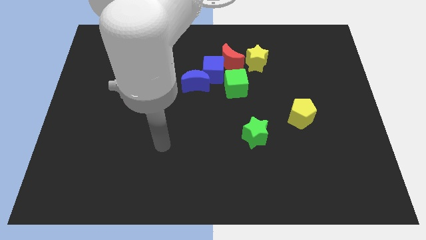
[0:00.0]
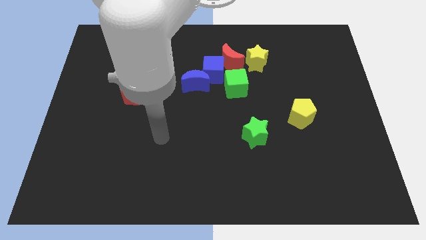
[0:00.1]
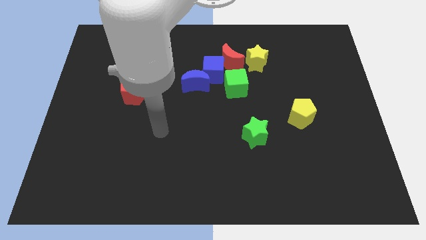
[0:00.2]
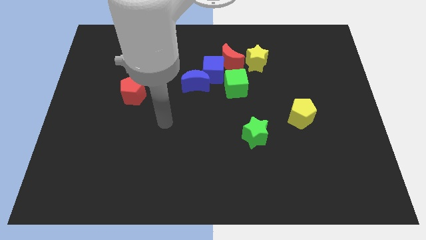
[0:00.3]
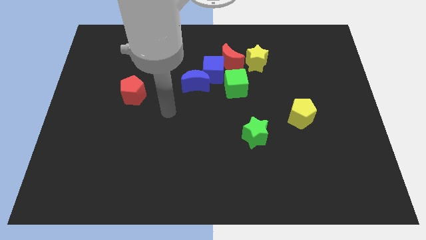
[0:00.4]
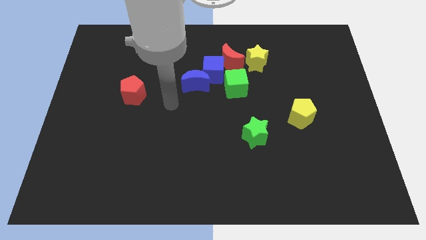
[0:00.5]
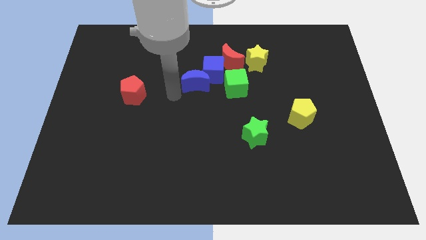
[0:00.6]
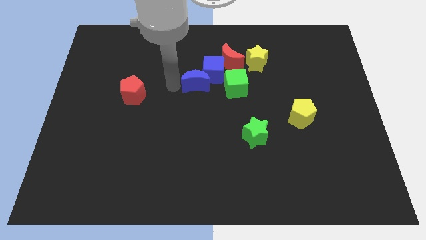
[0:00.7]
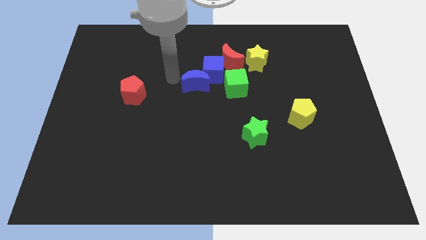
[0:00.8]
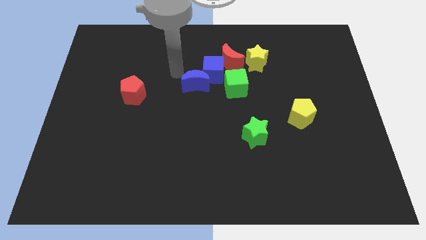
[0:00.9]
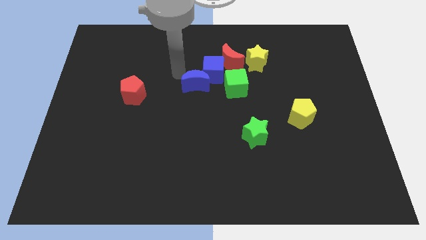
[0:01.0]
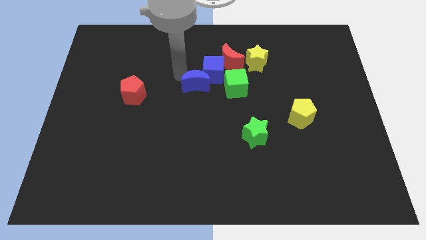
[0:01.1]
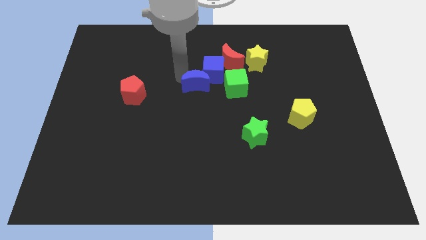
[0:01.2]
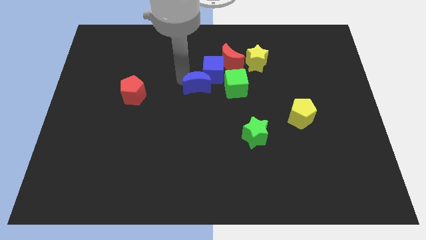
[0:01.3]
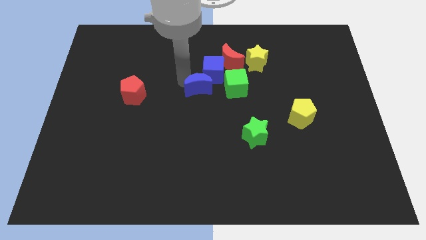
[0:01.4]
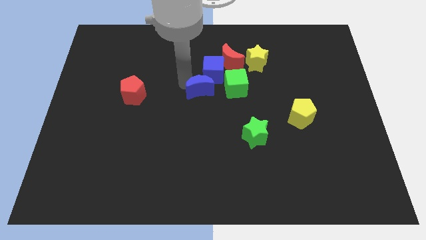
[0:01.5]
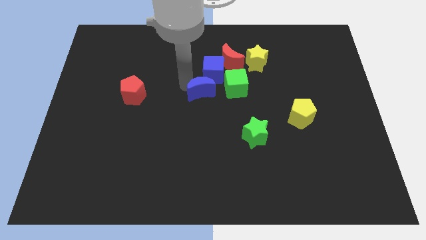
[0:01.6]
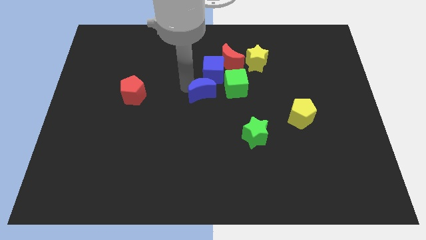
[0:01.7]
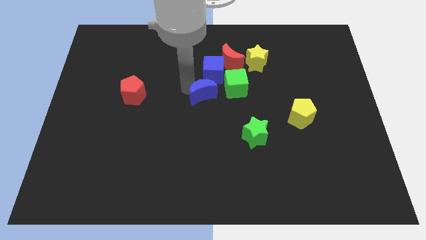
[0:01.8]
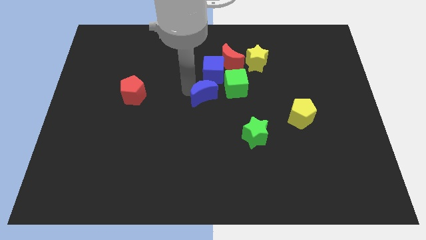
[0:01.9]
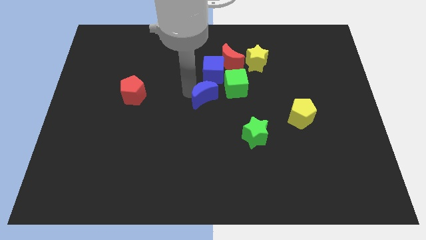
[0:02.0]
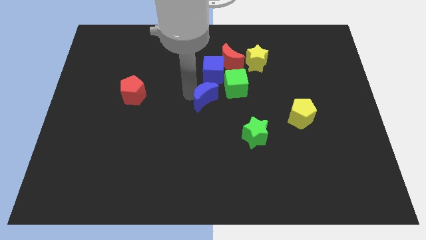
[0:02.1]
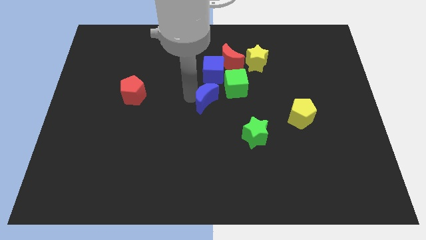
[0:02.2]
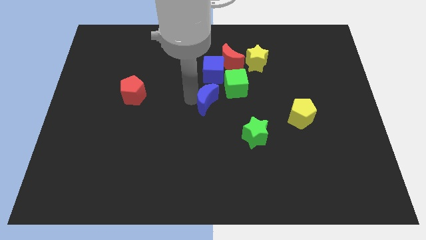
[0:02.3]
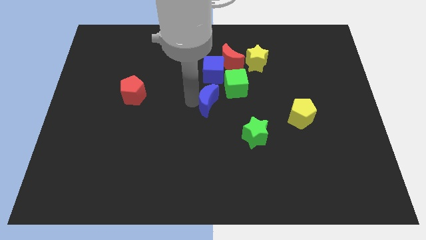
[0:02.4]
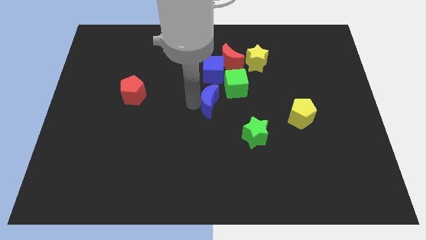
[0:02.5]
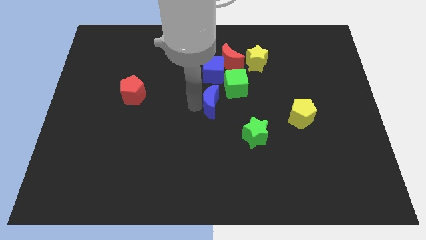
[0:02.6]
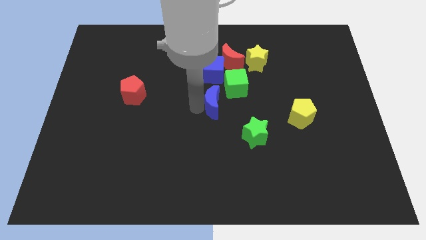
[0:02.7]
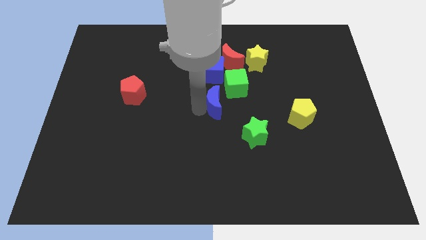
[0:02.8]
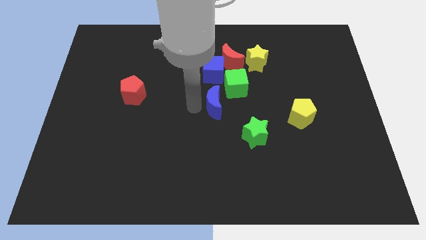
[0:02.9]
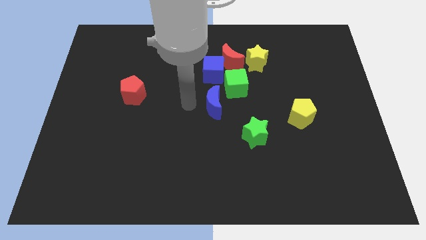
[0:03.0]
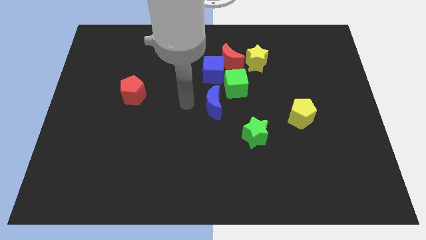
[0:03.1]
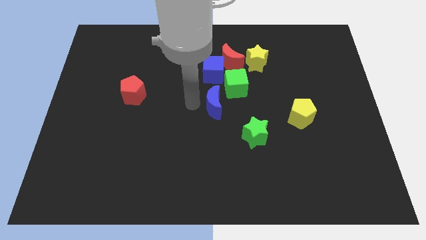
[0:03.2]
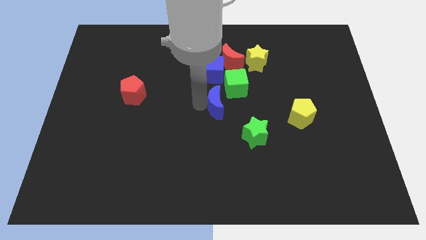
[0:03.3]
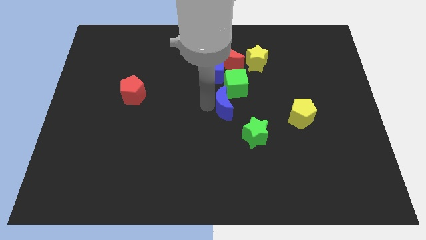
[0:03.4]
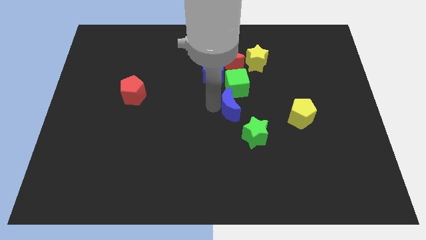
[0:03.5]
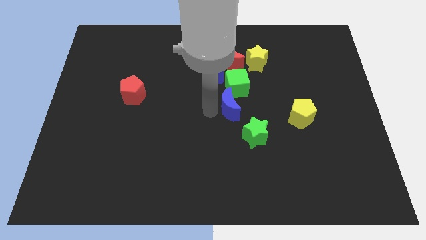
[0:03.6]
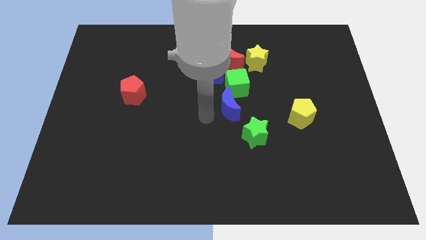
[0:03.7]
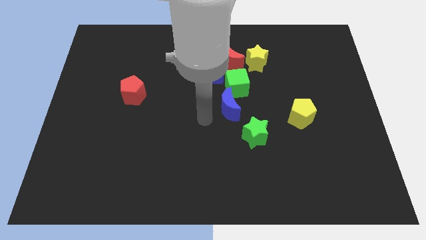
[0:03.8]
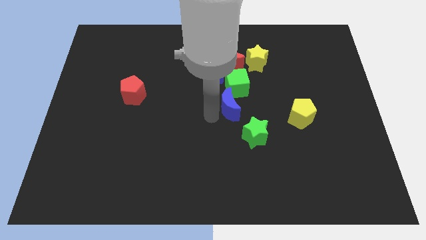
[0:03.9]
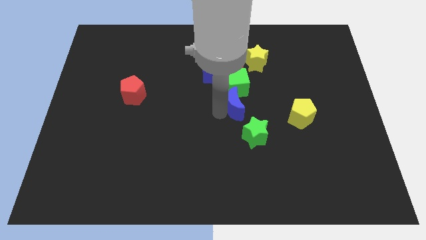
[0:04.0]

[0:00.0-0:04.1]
move the blue moon a little bit right

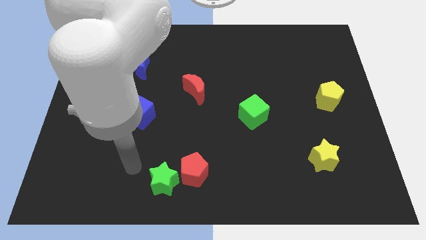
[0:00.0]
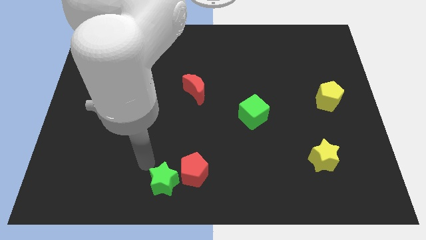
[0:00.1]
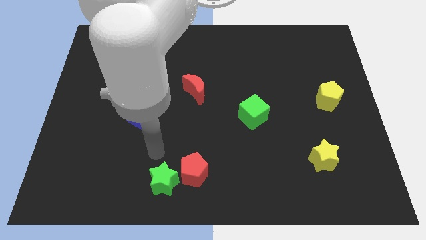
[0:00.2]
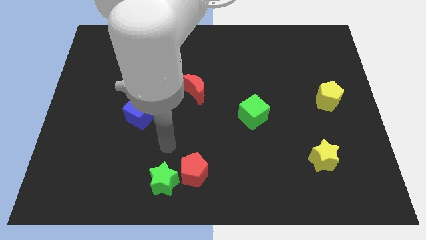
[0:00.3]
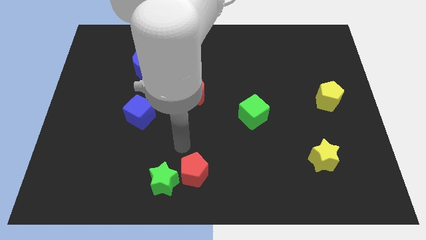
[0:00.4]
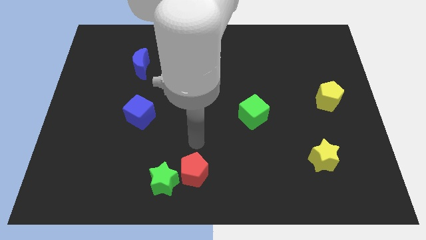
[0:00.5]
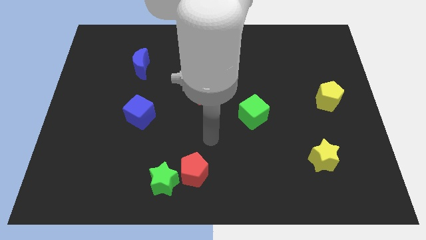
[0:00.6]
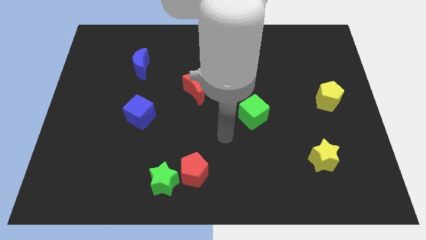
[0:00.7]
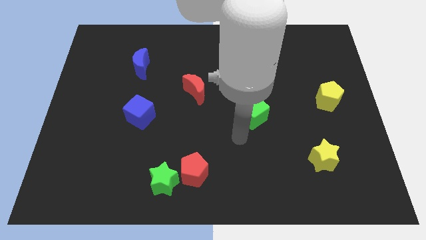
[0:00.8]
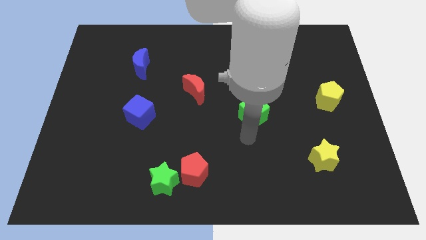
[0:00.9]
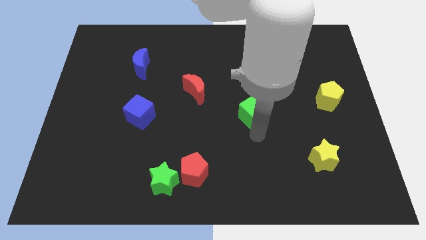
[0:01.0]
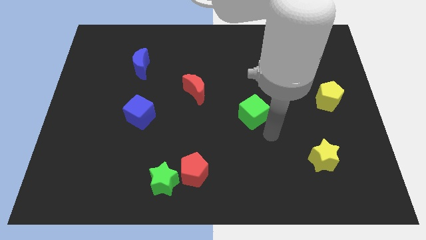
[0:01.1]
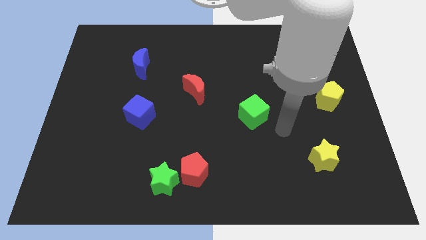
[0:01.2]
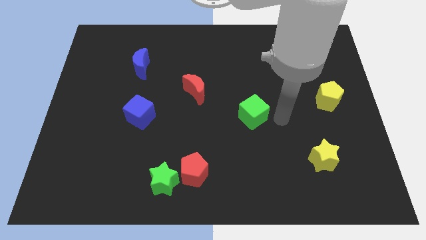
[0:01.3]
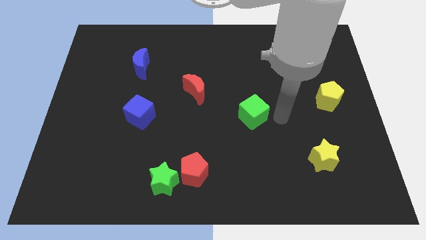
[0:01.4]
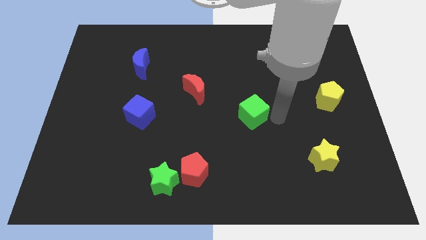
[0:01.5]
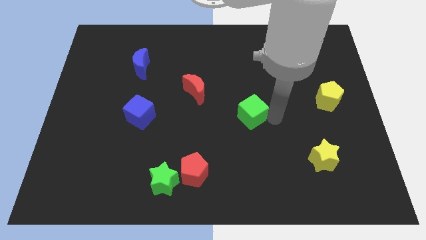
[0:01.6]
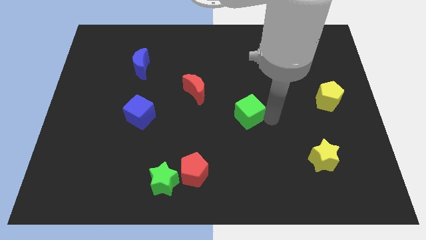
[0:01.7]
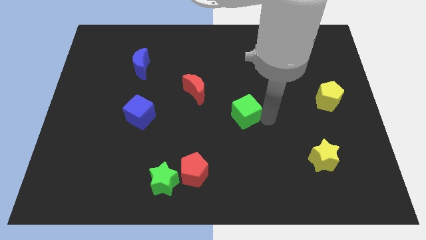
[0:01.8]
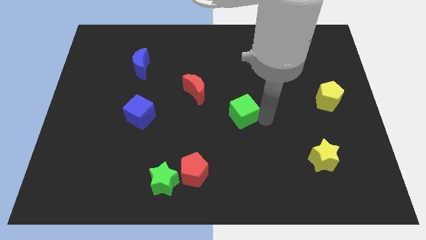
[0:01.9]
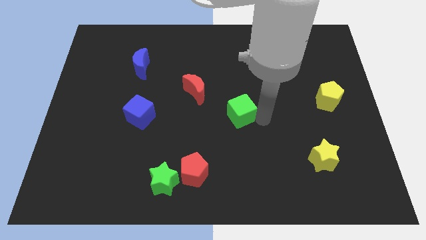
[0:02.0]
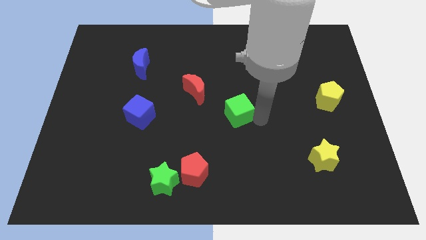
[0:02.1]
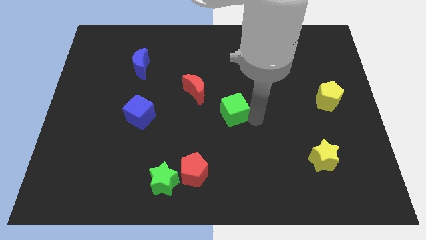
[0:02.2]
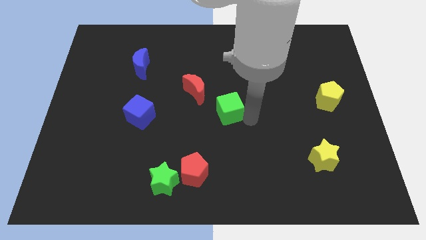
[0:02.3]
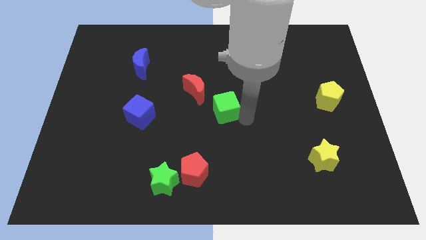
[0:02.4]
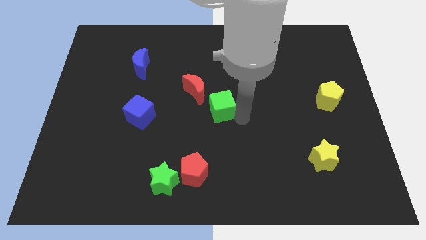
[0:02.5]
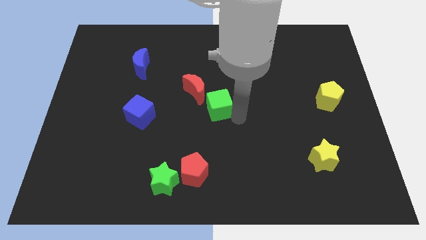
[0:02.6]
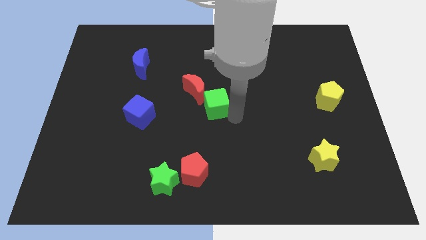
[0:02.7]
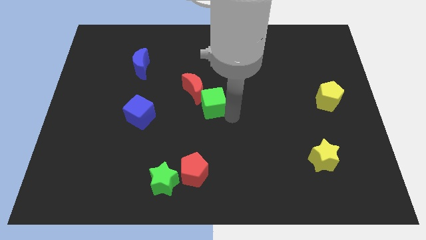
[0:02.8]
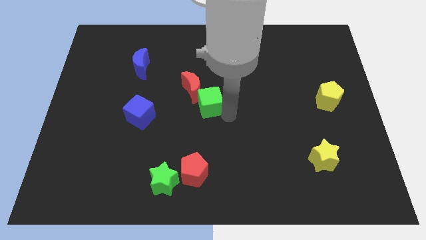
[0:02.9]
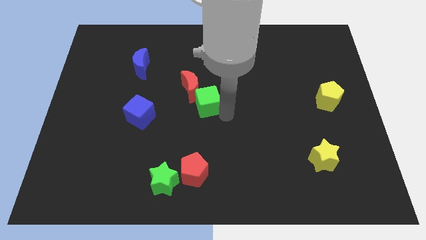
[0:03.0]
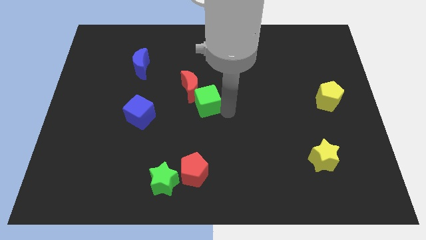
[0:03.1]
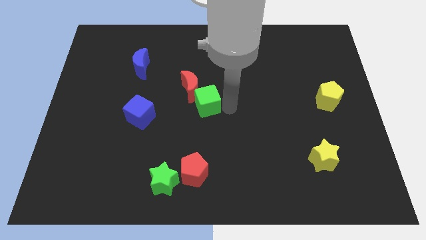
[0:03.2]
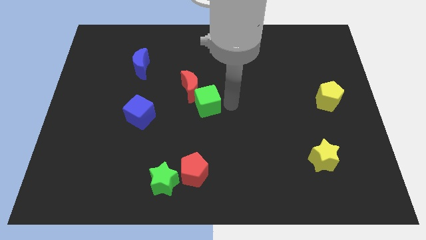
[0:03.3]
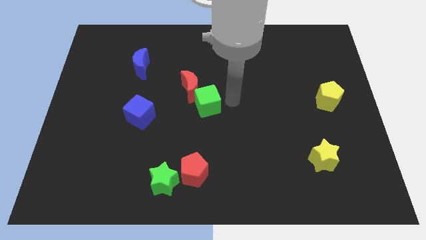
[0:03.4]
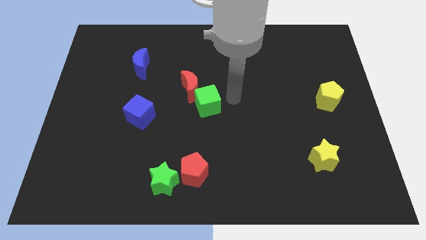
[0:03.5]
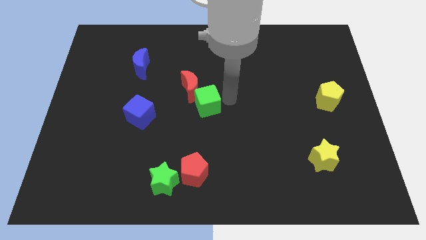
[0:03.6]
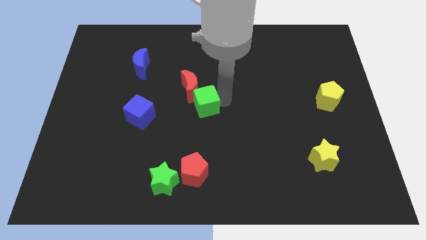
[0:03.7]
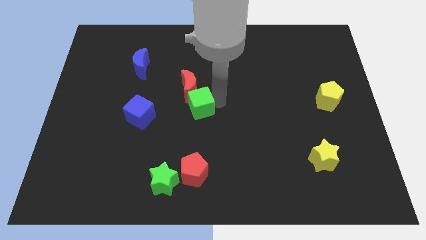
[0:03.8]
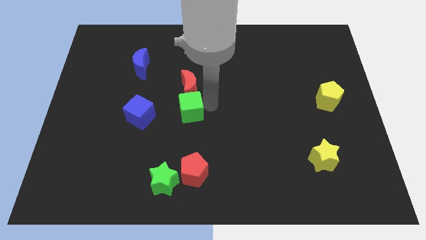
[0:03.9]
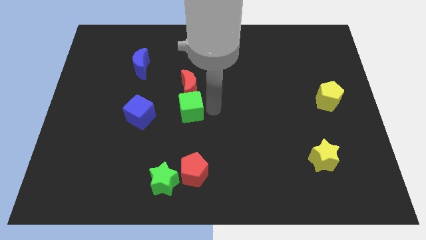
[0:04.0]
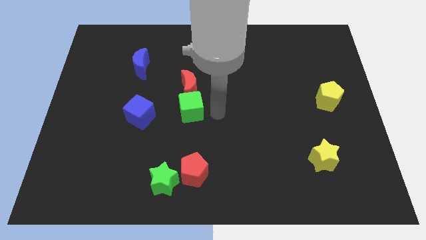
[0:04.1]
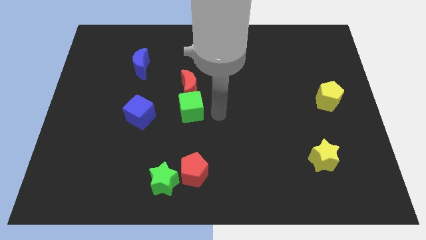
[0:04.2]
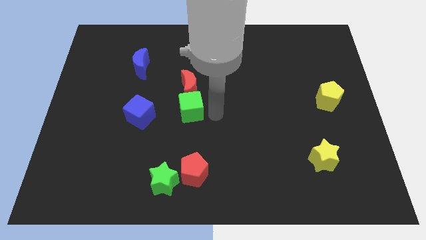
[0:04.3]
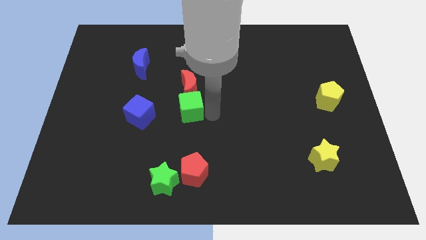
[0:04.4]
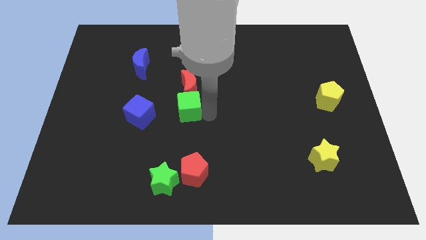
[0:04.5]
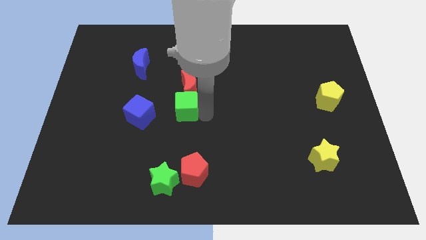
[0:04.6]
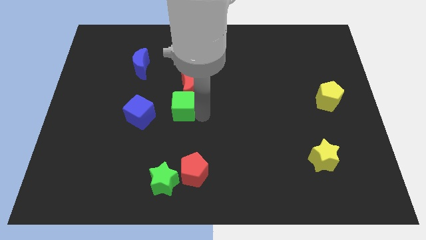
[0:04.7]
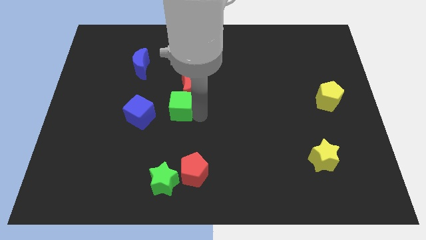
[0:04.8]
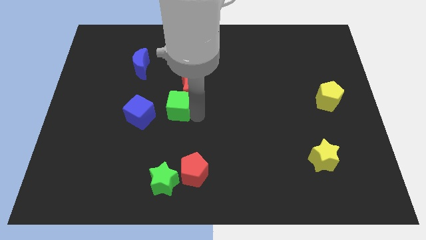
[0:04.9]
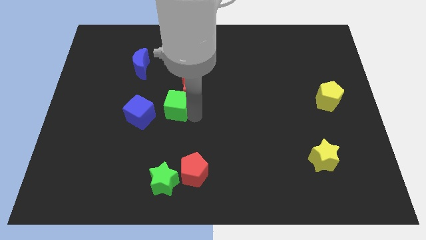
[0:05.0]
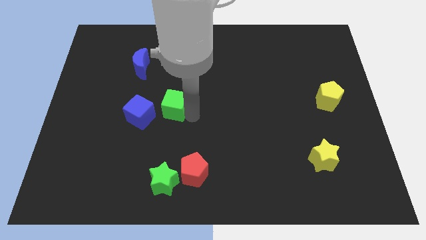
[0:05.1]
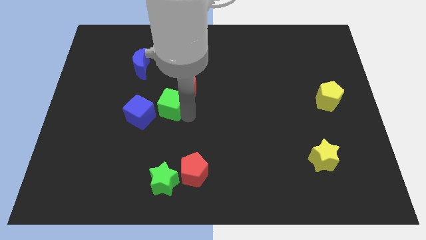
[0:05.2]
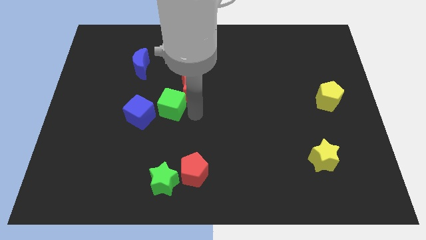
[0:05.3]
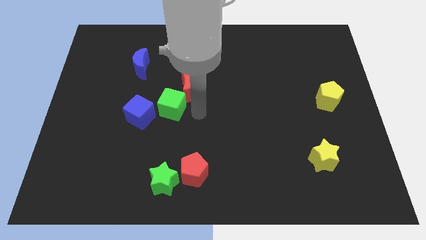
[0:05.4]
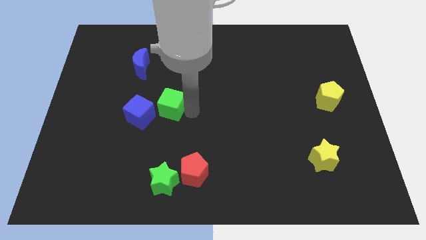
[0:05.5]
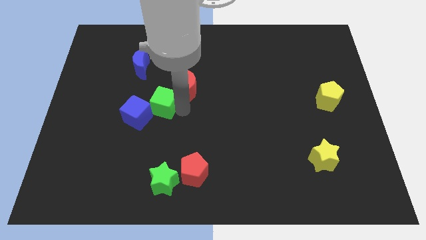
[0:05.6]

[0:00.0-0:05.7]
move the green cube to the left
